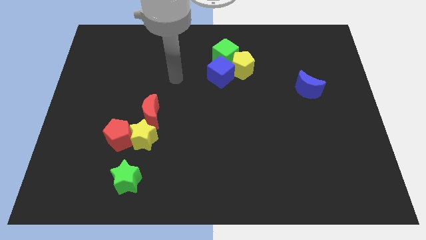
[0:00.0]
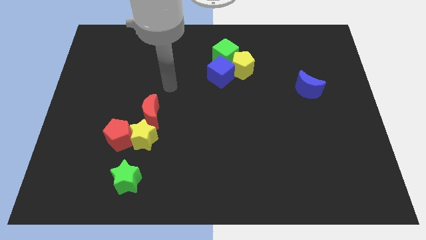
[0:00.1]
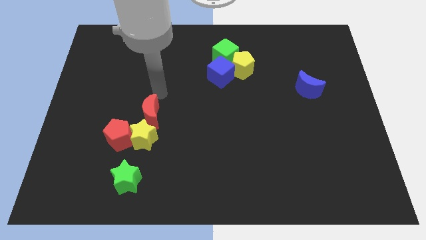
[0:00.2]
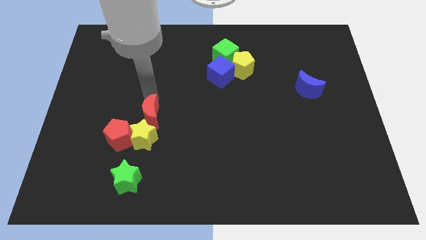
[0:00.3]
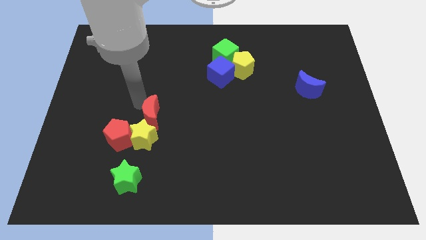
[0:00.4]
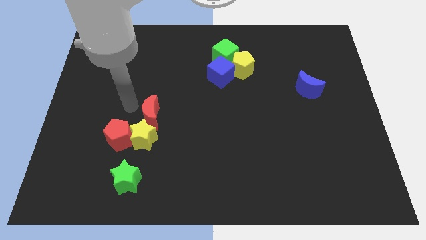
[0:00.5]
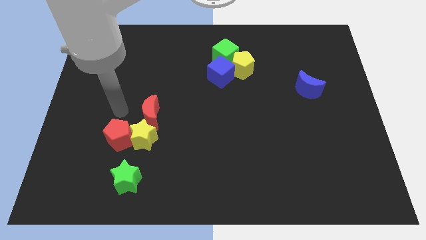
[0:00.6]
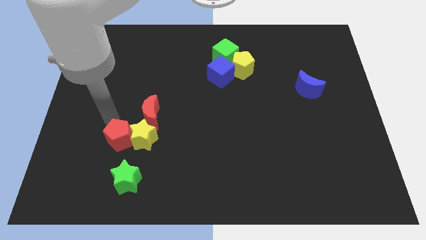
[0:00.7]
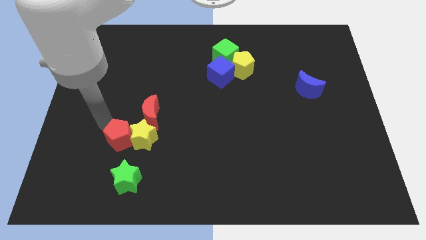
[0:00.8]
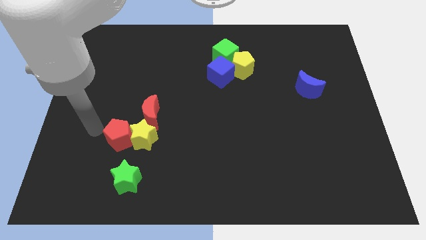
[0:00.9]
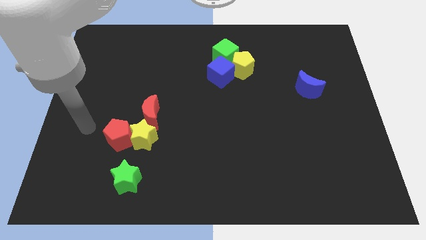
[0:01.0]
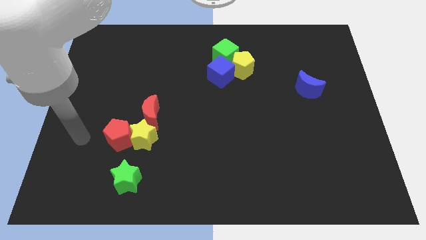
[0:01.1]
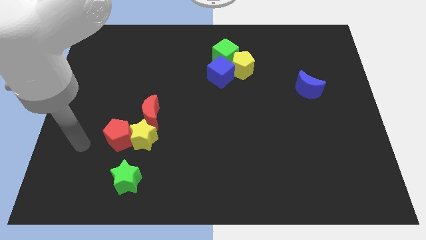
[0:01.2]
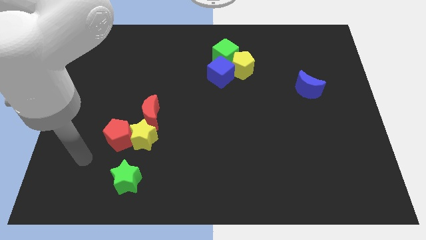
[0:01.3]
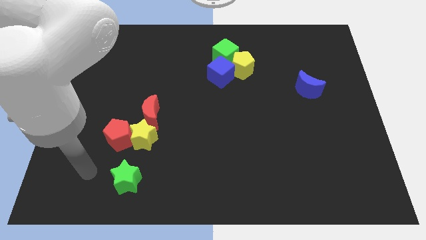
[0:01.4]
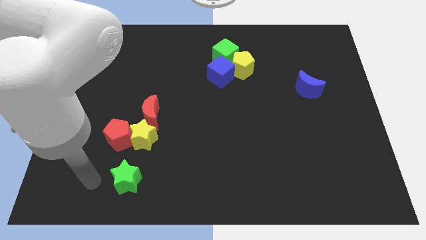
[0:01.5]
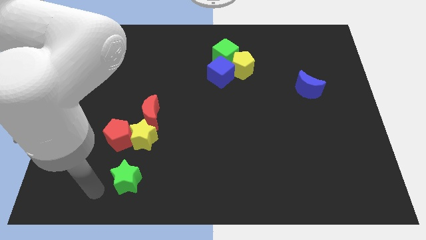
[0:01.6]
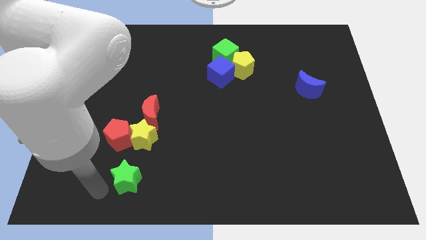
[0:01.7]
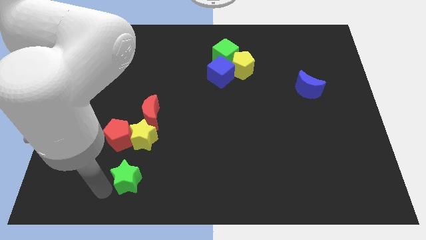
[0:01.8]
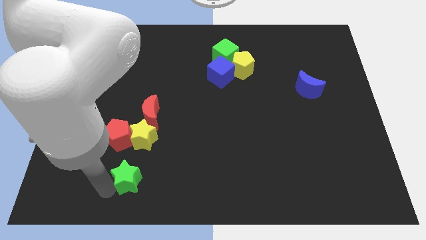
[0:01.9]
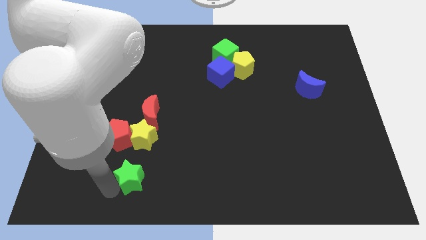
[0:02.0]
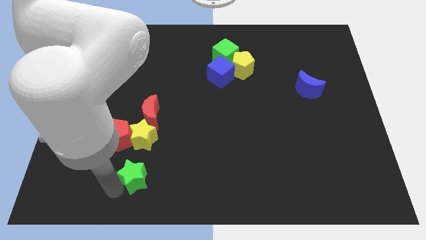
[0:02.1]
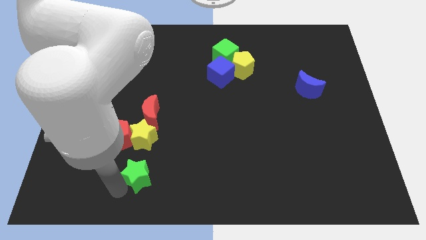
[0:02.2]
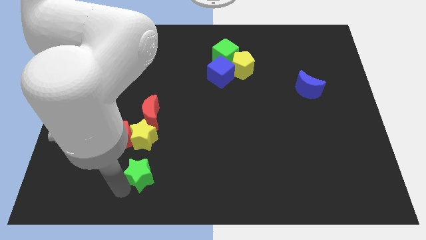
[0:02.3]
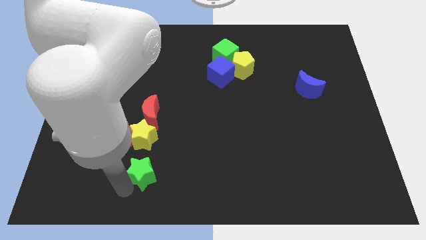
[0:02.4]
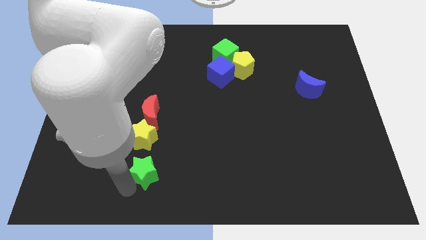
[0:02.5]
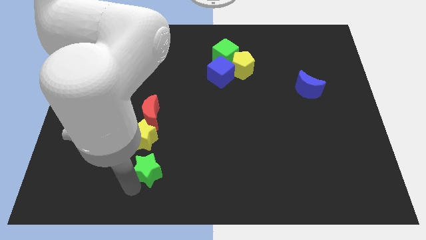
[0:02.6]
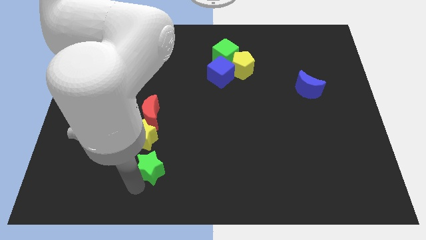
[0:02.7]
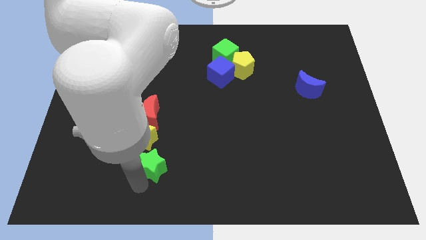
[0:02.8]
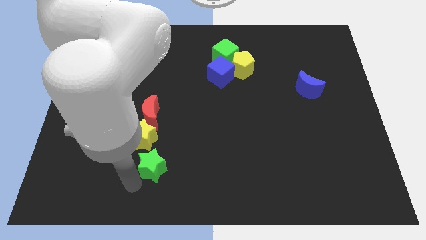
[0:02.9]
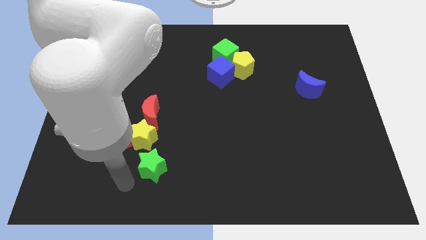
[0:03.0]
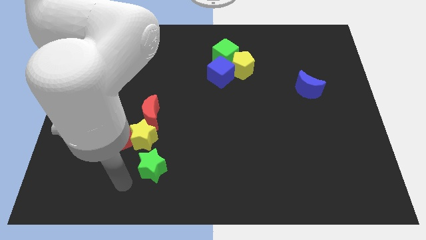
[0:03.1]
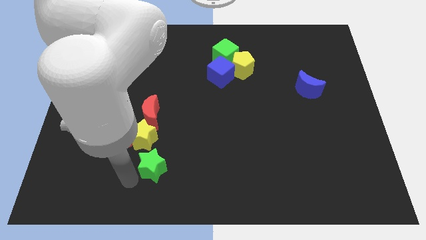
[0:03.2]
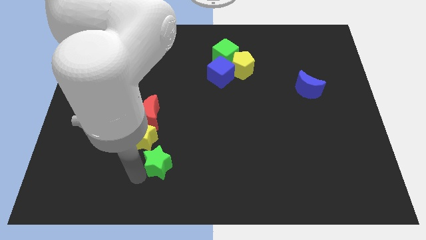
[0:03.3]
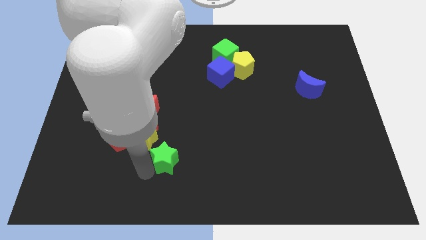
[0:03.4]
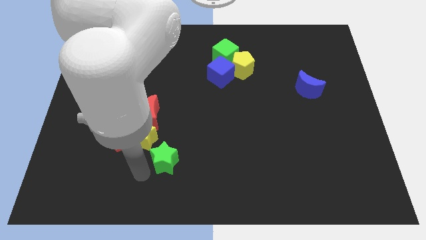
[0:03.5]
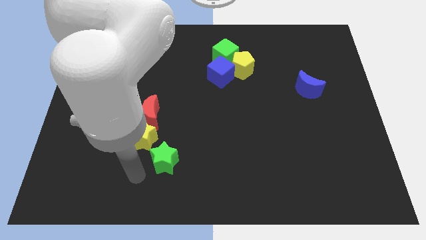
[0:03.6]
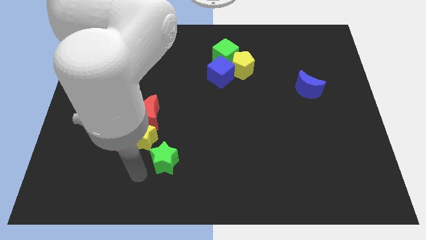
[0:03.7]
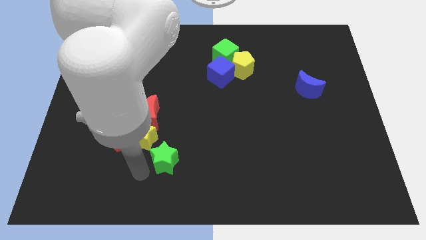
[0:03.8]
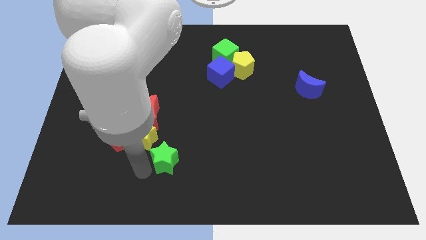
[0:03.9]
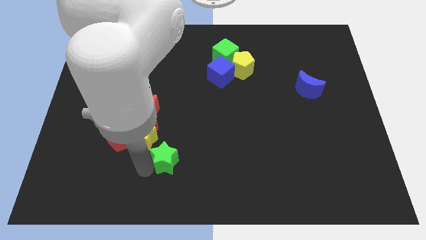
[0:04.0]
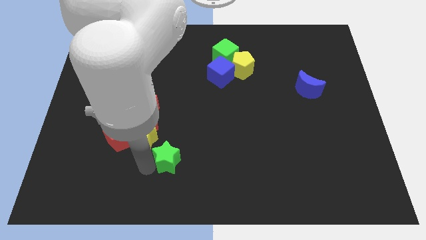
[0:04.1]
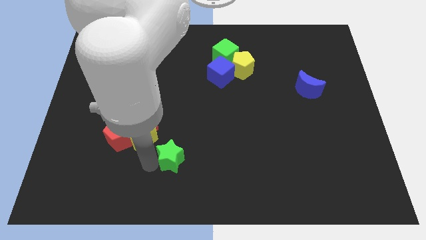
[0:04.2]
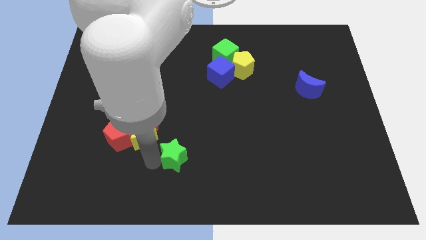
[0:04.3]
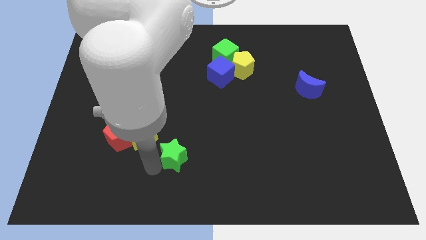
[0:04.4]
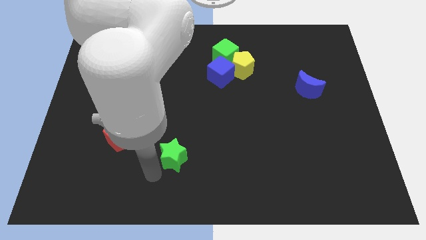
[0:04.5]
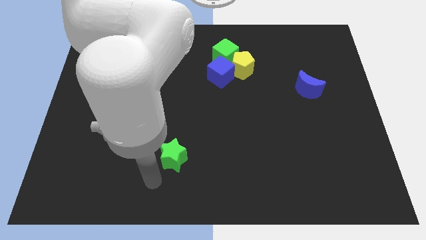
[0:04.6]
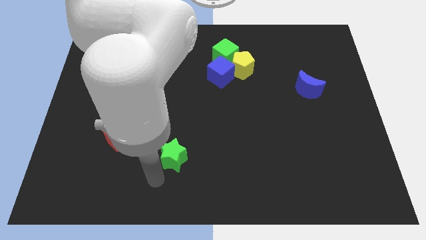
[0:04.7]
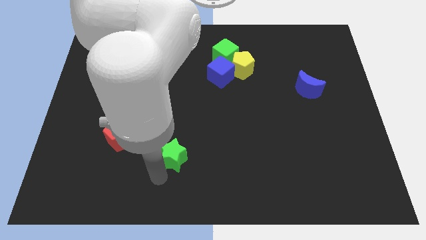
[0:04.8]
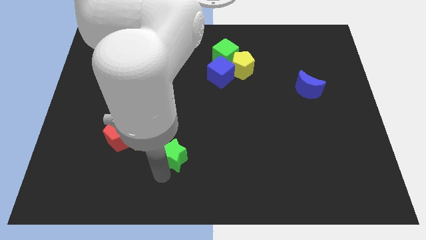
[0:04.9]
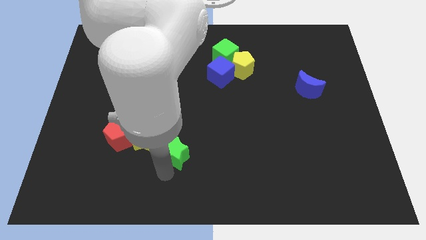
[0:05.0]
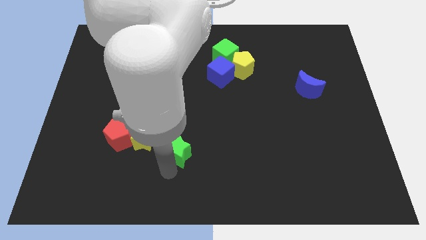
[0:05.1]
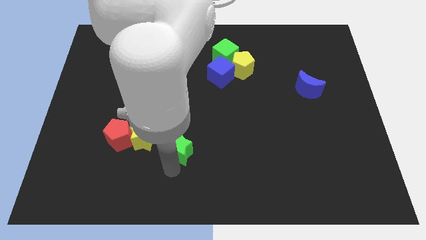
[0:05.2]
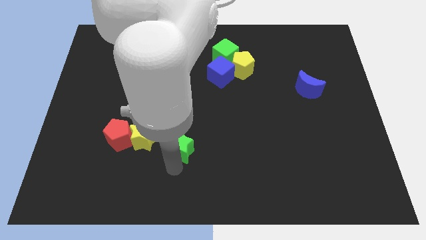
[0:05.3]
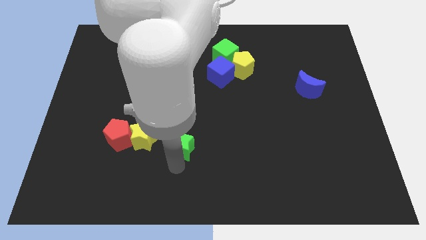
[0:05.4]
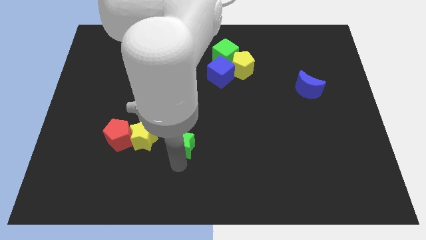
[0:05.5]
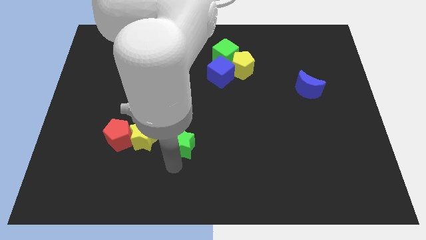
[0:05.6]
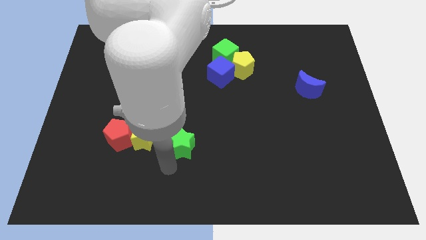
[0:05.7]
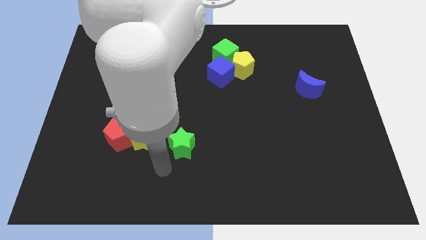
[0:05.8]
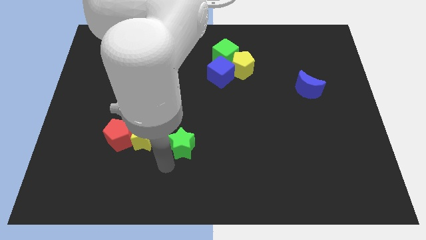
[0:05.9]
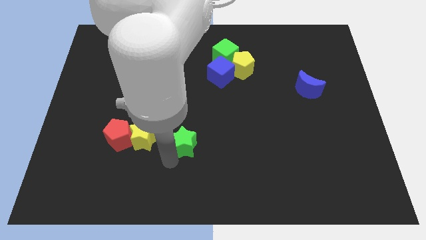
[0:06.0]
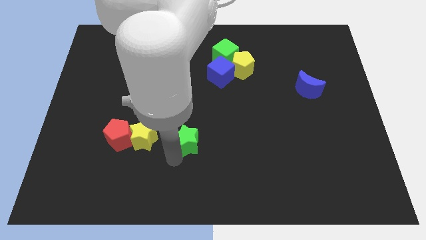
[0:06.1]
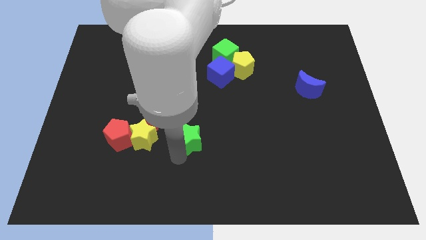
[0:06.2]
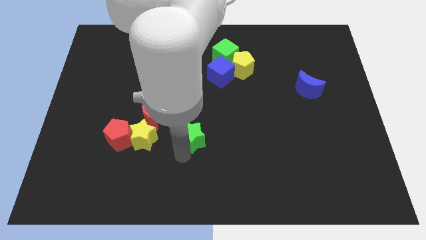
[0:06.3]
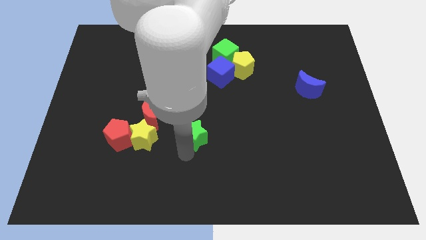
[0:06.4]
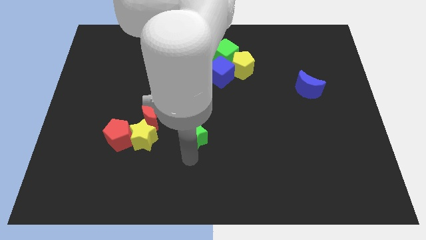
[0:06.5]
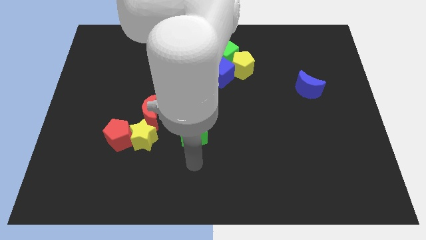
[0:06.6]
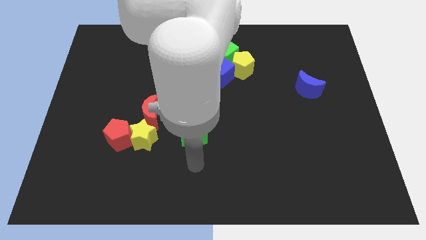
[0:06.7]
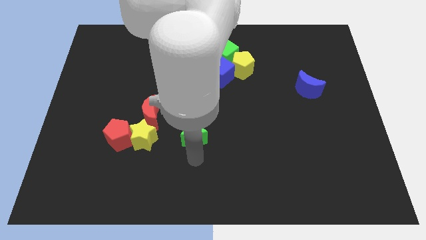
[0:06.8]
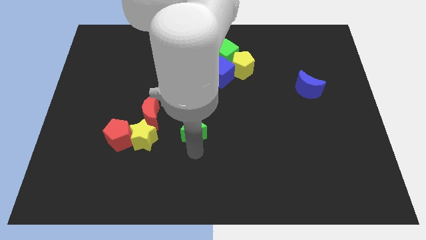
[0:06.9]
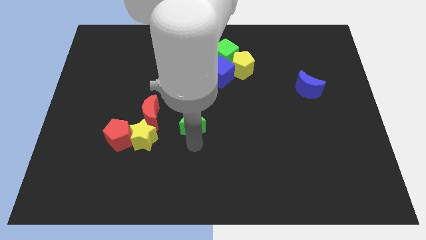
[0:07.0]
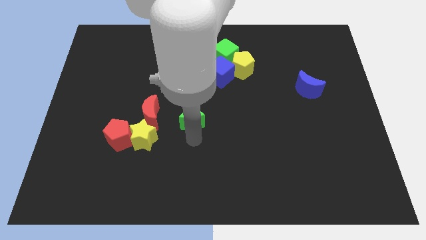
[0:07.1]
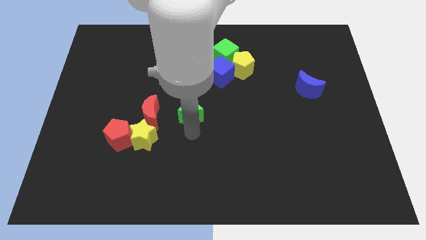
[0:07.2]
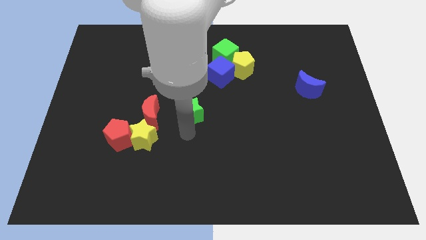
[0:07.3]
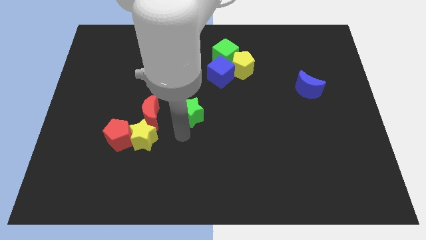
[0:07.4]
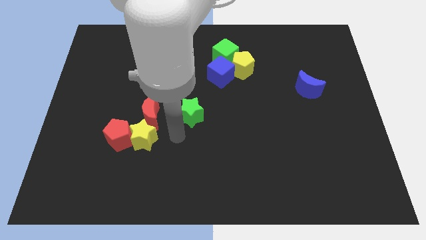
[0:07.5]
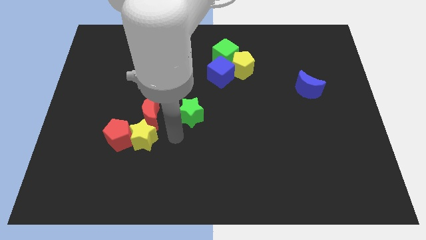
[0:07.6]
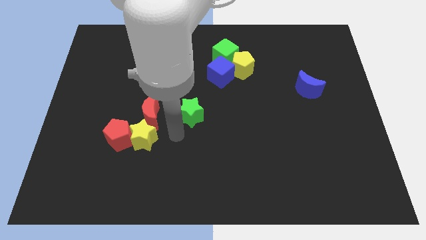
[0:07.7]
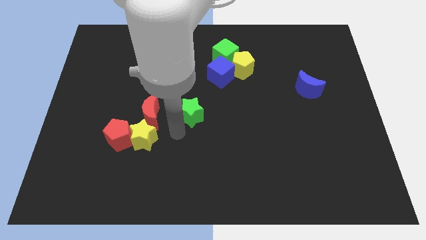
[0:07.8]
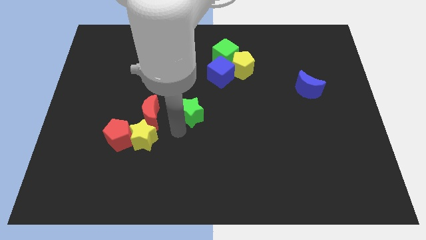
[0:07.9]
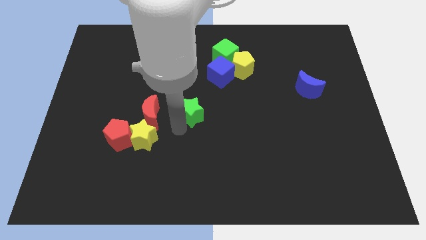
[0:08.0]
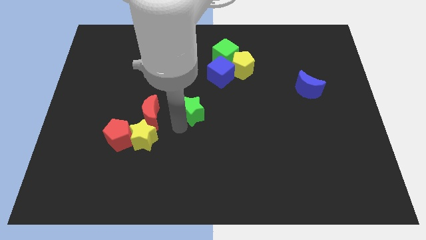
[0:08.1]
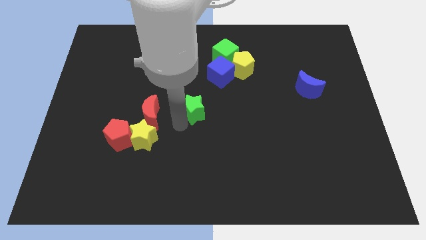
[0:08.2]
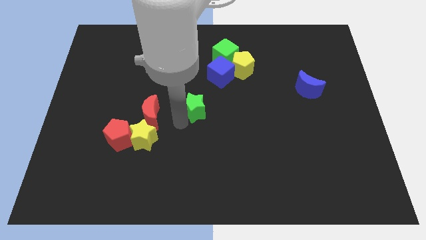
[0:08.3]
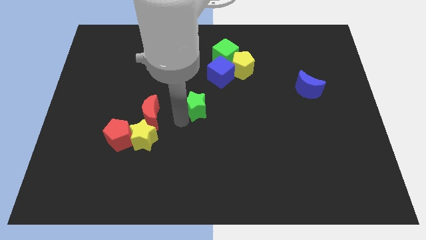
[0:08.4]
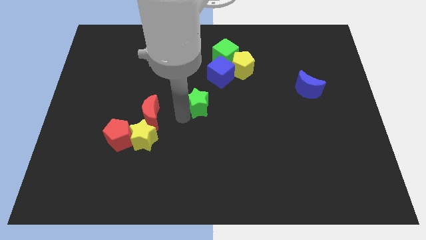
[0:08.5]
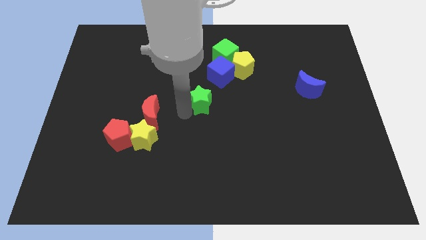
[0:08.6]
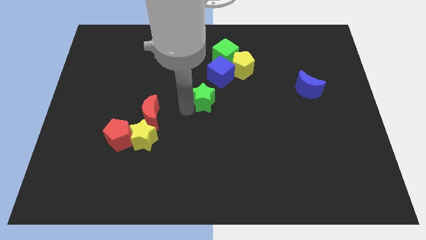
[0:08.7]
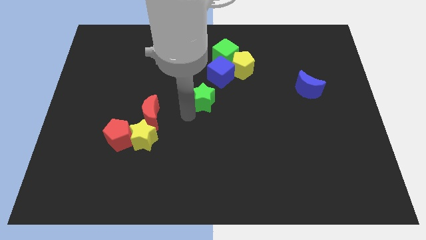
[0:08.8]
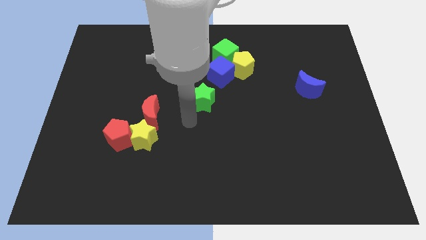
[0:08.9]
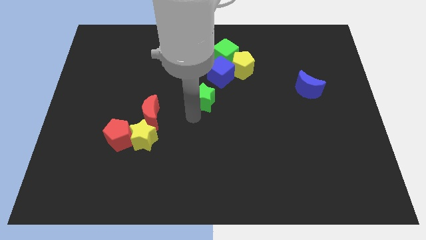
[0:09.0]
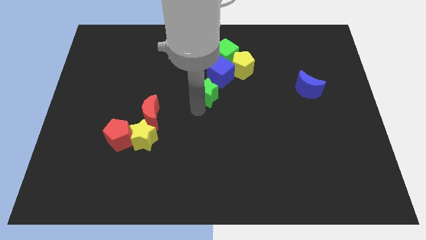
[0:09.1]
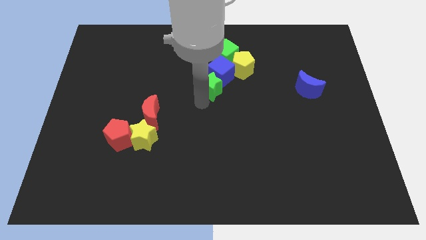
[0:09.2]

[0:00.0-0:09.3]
move the green star towards the blue cube
